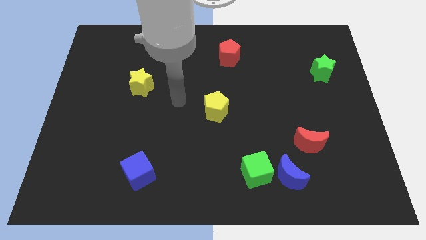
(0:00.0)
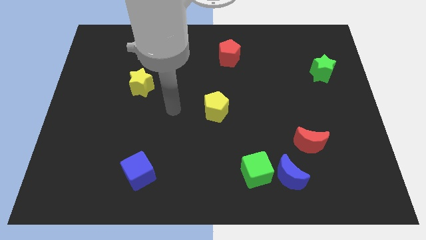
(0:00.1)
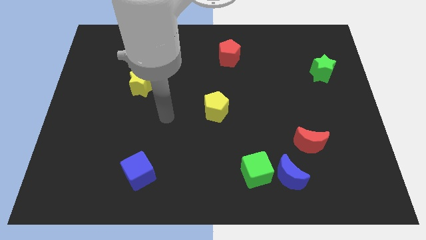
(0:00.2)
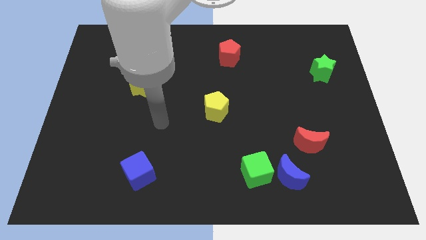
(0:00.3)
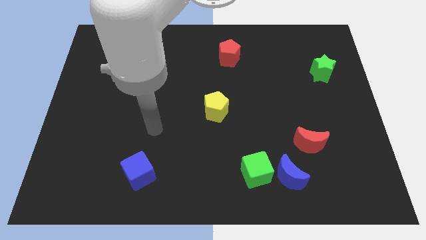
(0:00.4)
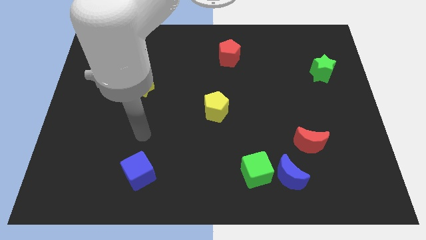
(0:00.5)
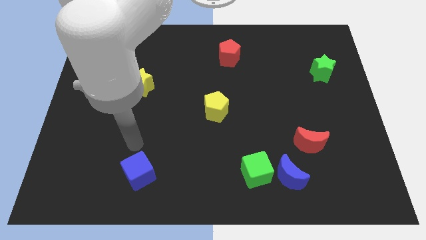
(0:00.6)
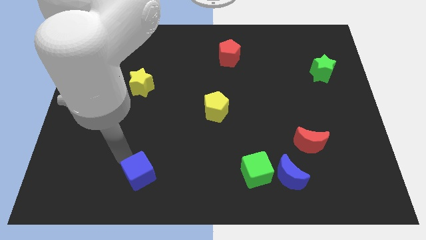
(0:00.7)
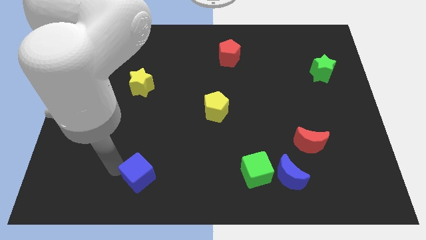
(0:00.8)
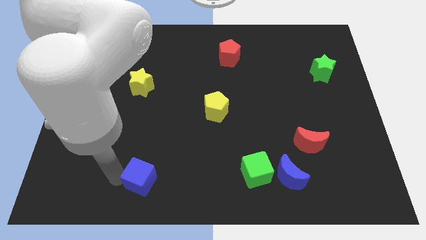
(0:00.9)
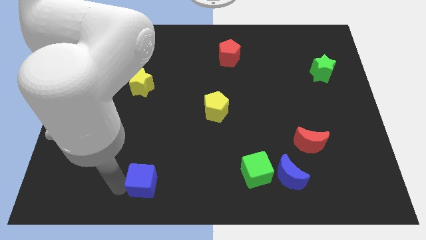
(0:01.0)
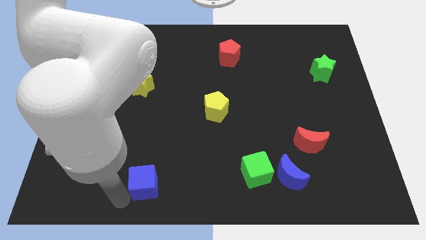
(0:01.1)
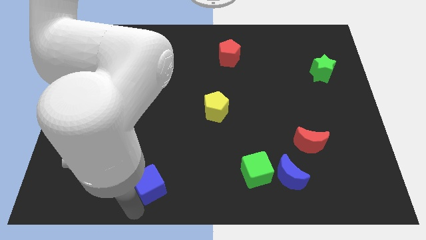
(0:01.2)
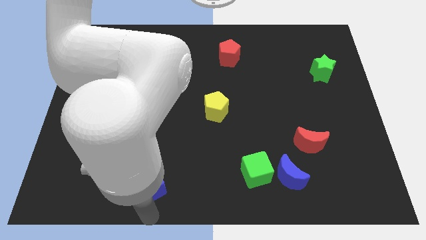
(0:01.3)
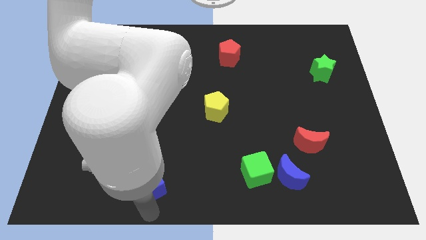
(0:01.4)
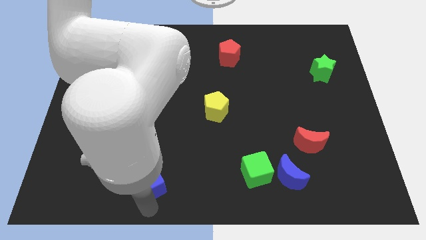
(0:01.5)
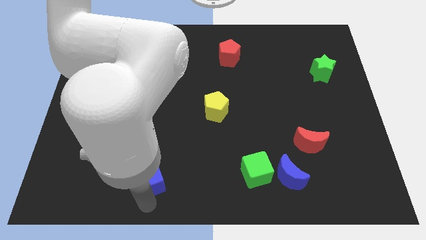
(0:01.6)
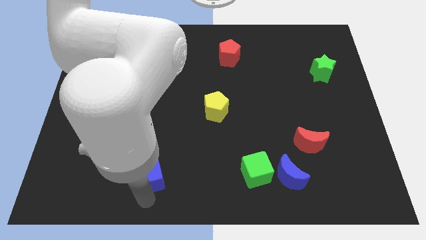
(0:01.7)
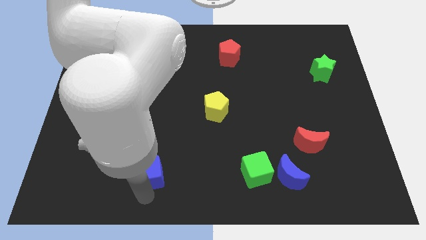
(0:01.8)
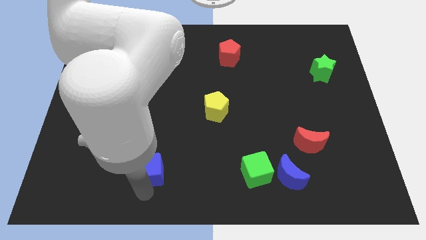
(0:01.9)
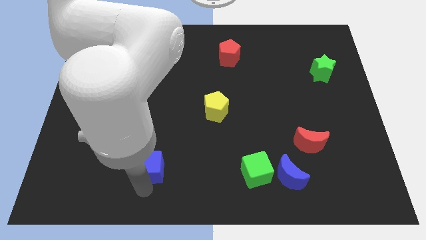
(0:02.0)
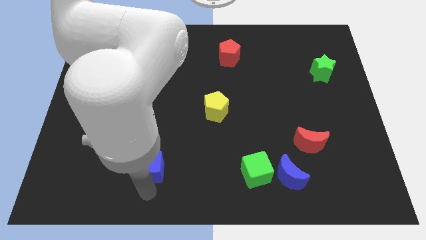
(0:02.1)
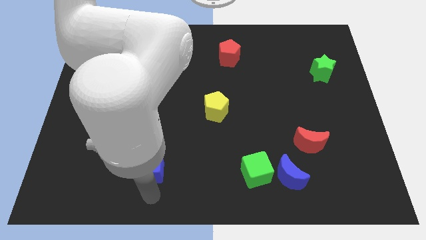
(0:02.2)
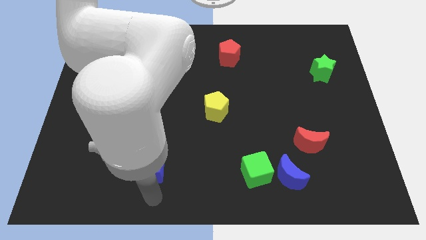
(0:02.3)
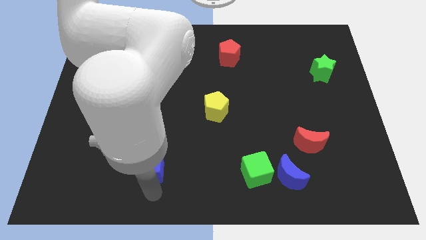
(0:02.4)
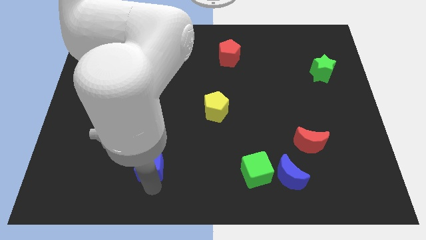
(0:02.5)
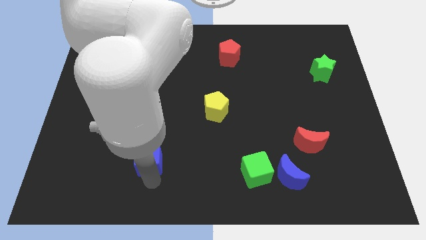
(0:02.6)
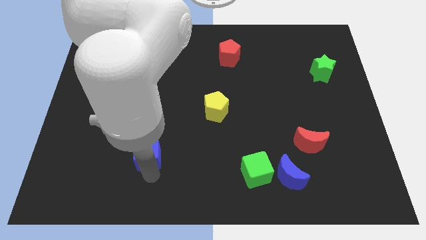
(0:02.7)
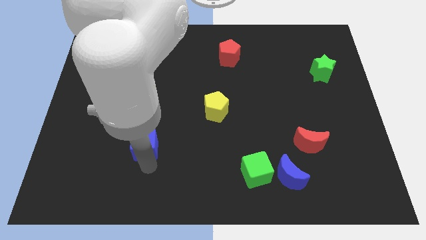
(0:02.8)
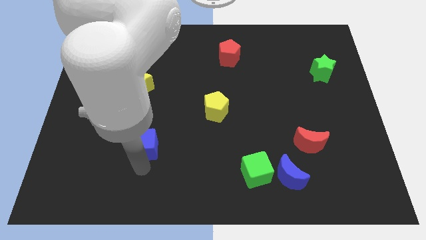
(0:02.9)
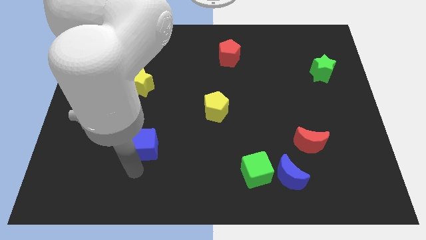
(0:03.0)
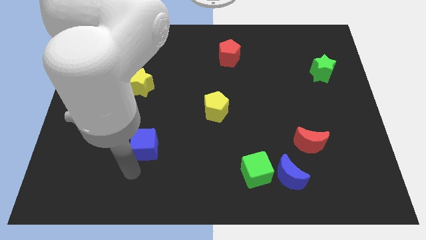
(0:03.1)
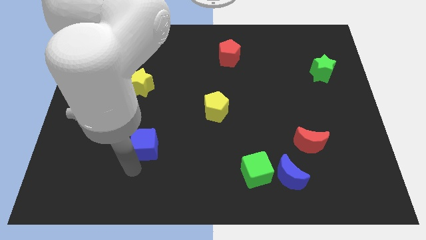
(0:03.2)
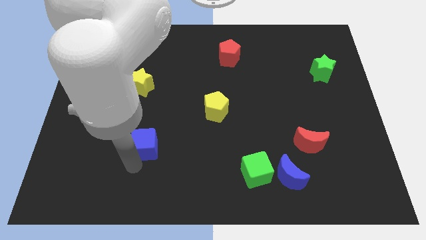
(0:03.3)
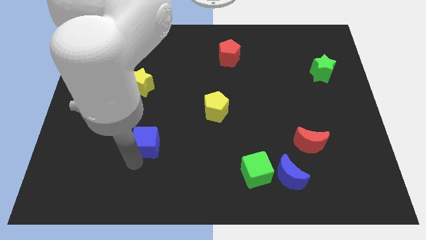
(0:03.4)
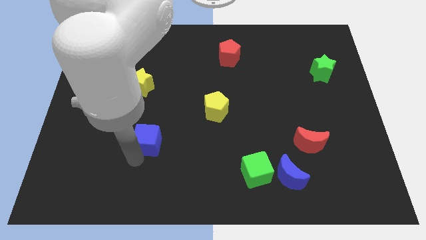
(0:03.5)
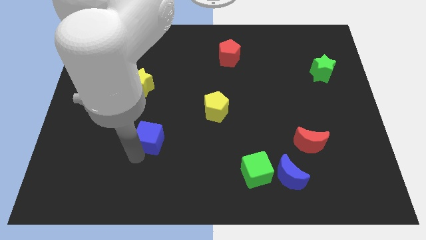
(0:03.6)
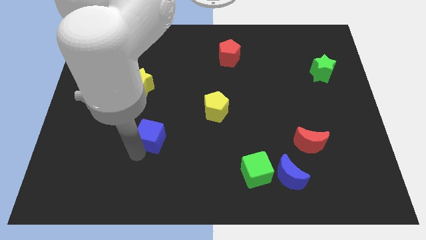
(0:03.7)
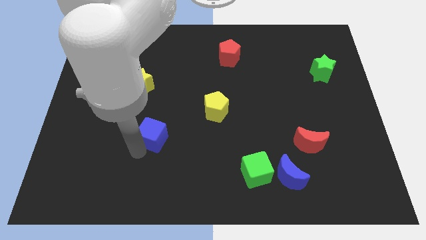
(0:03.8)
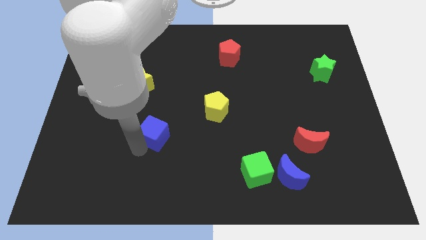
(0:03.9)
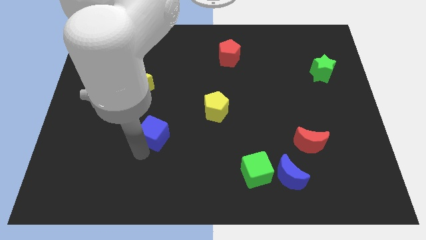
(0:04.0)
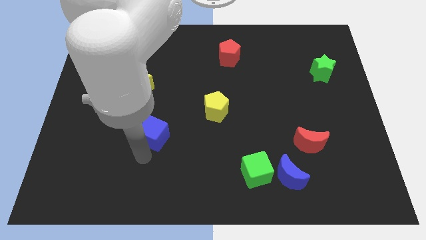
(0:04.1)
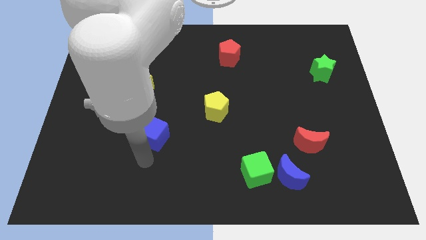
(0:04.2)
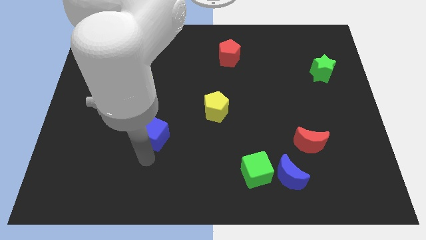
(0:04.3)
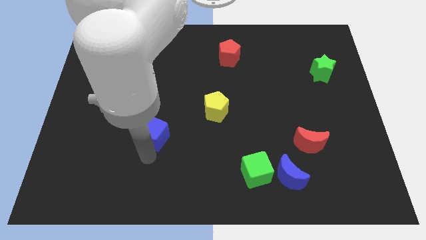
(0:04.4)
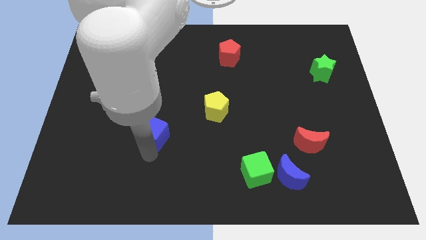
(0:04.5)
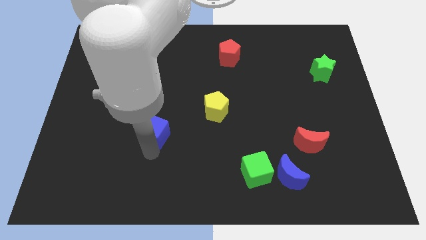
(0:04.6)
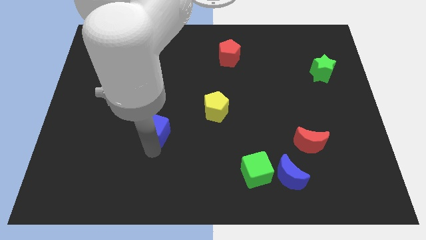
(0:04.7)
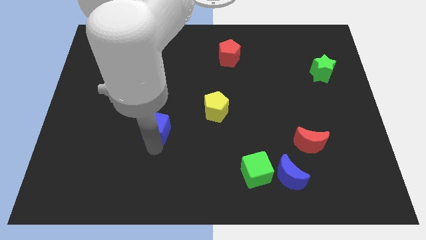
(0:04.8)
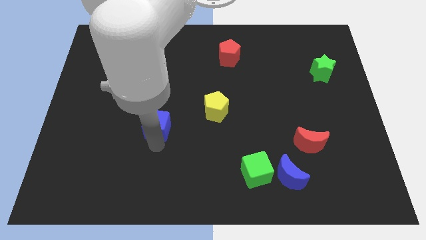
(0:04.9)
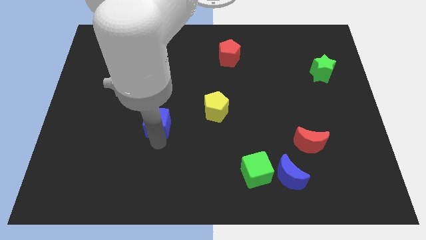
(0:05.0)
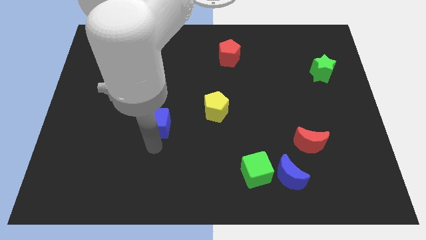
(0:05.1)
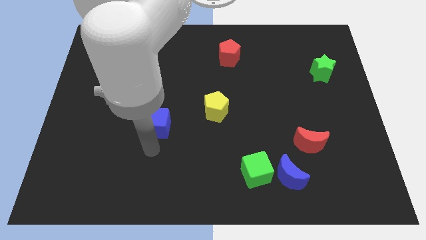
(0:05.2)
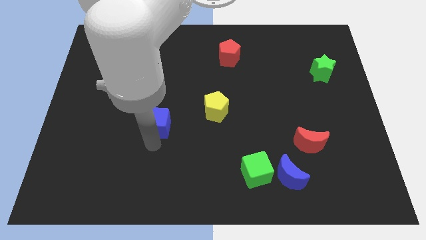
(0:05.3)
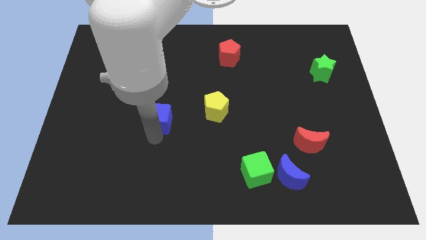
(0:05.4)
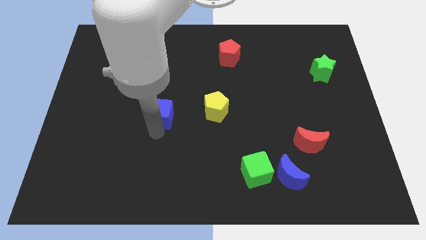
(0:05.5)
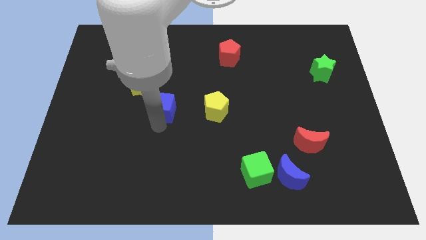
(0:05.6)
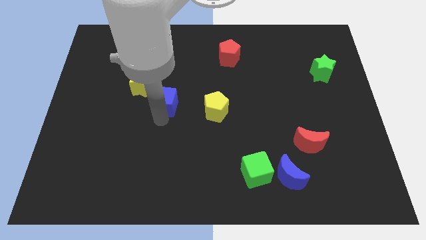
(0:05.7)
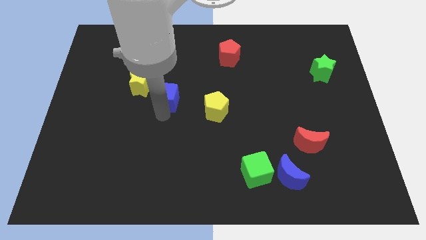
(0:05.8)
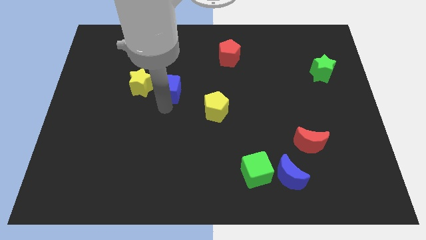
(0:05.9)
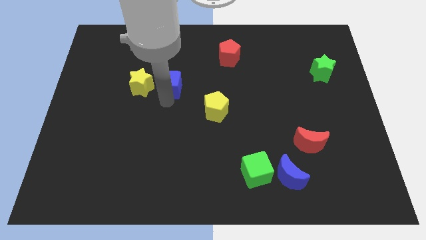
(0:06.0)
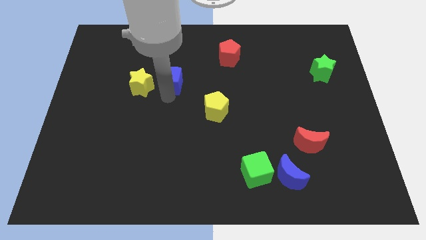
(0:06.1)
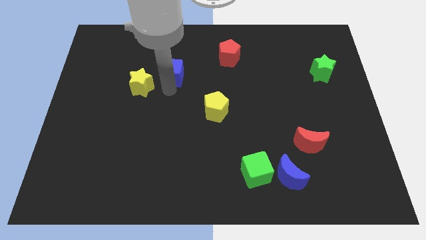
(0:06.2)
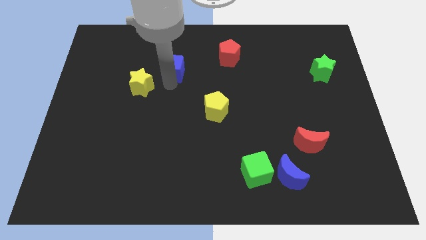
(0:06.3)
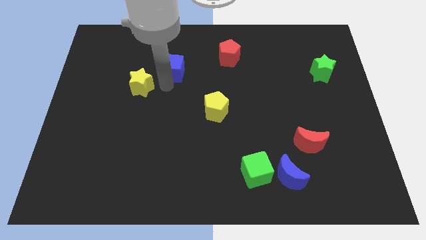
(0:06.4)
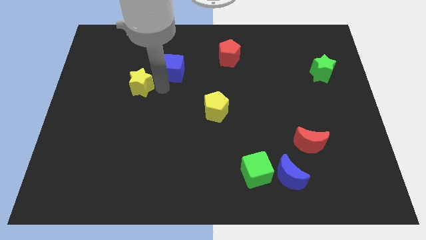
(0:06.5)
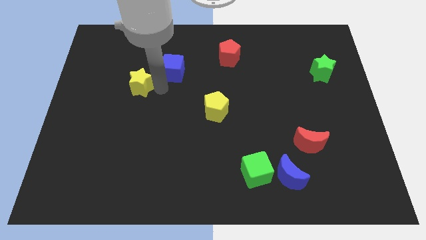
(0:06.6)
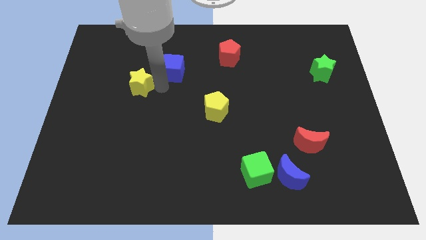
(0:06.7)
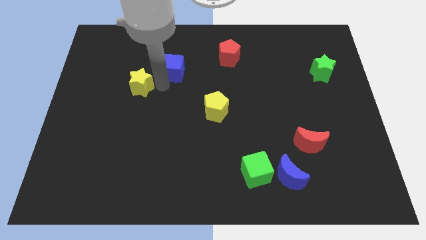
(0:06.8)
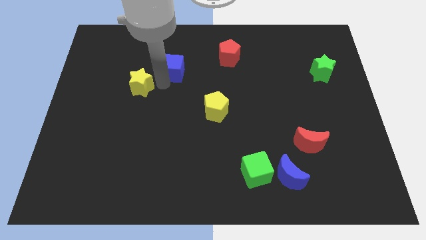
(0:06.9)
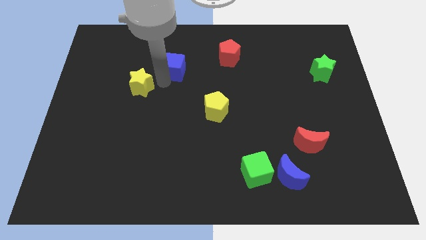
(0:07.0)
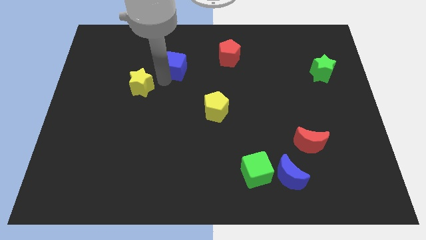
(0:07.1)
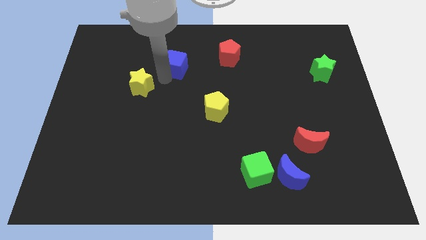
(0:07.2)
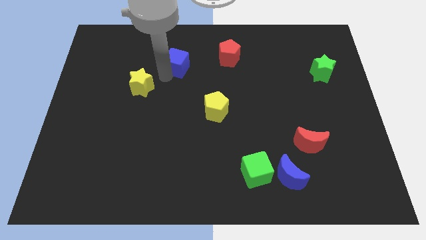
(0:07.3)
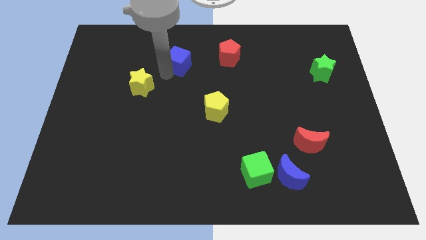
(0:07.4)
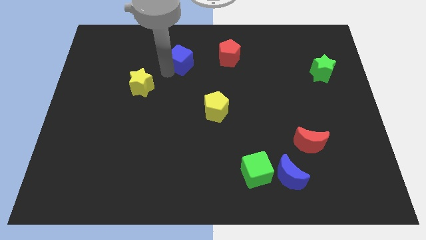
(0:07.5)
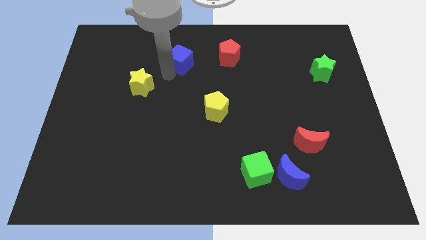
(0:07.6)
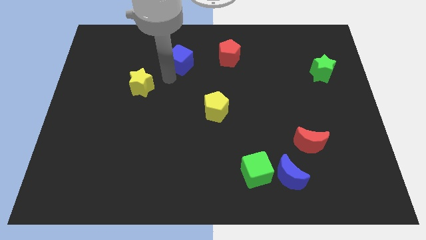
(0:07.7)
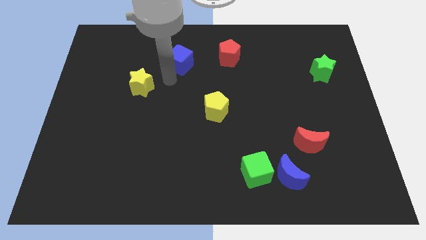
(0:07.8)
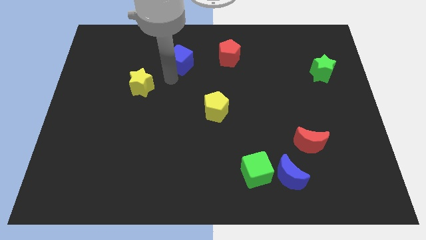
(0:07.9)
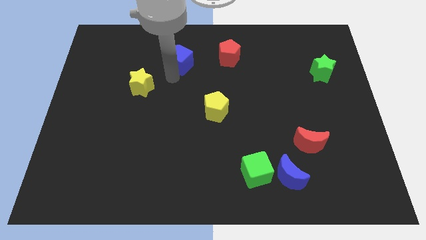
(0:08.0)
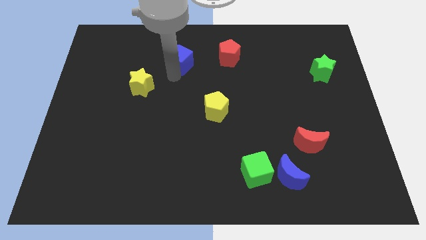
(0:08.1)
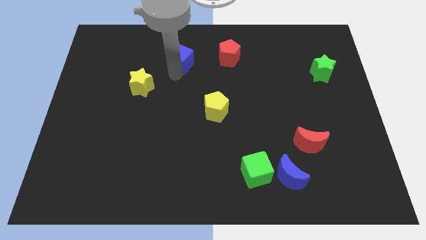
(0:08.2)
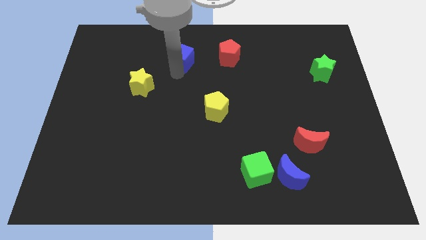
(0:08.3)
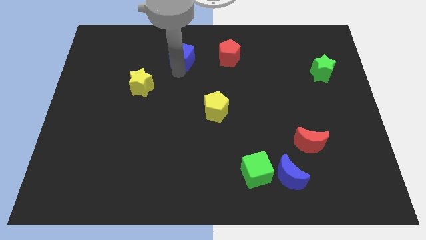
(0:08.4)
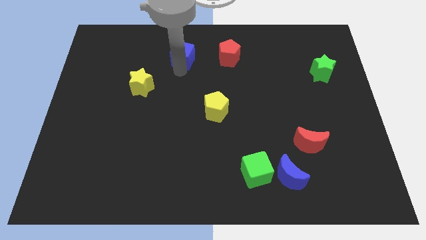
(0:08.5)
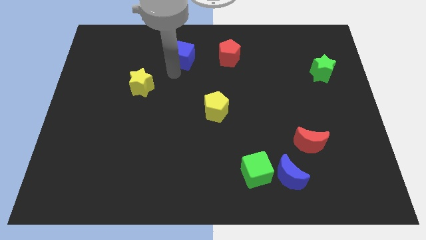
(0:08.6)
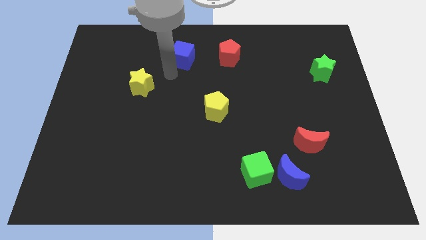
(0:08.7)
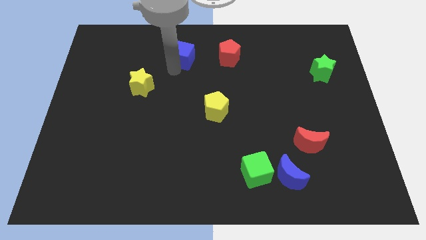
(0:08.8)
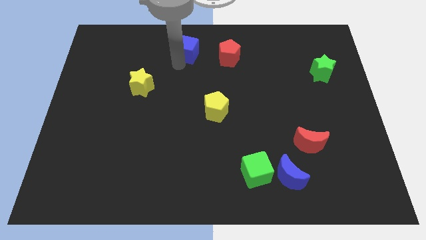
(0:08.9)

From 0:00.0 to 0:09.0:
put the blue cube to the towards your base
